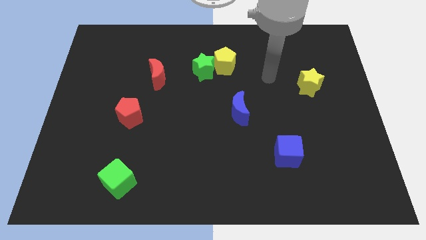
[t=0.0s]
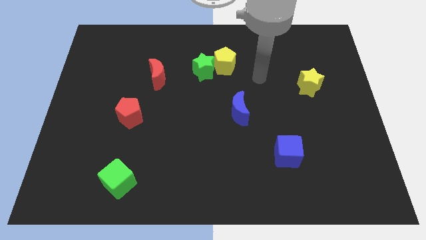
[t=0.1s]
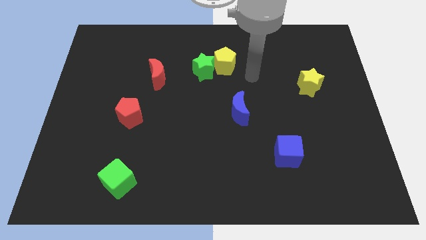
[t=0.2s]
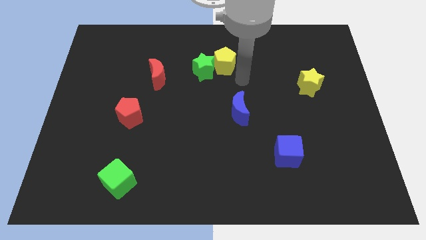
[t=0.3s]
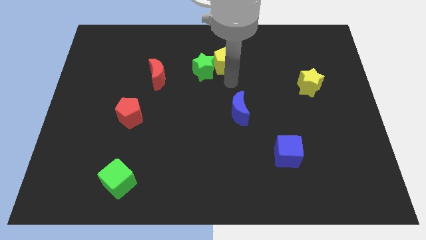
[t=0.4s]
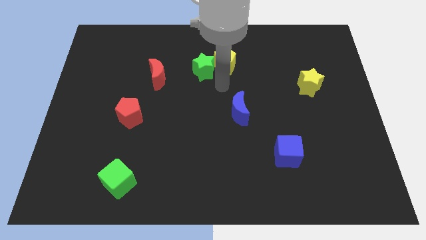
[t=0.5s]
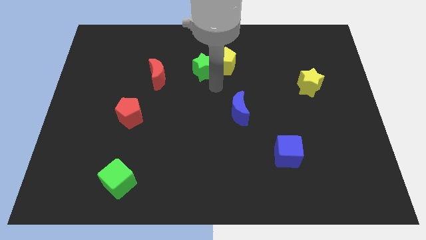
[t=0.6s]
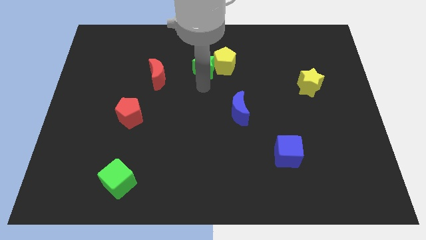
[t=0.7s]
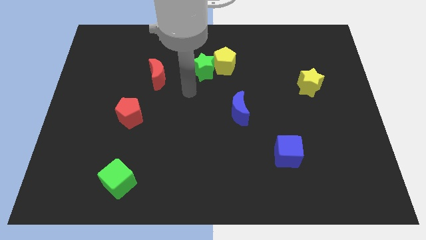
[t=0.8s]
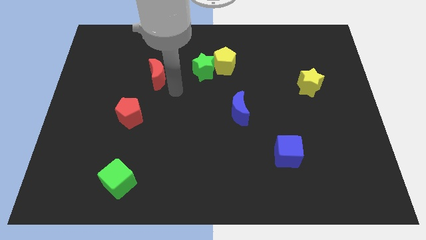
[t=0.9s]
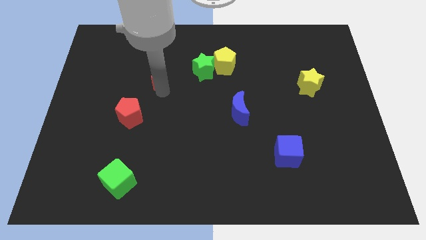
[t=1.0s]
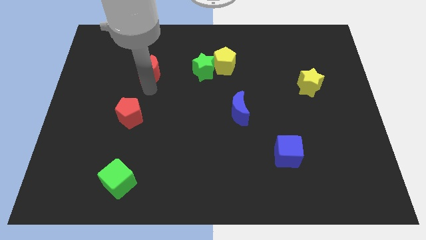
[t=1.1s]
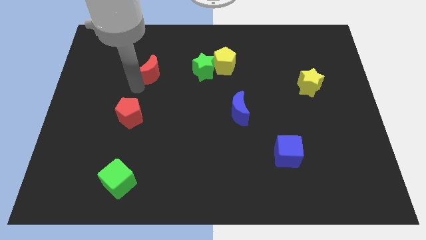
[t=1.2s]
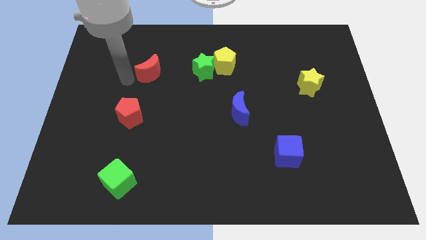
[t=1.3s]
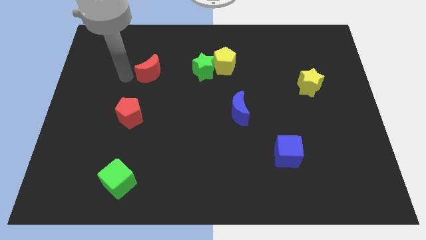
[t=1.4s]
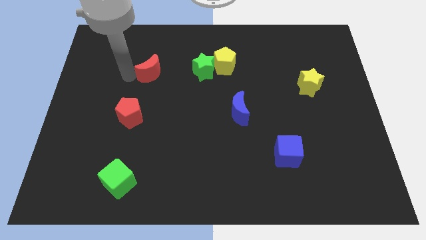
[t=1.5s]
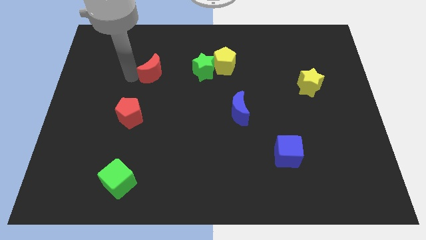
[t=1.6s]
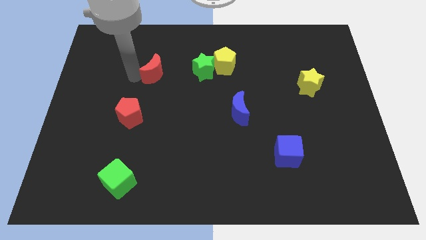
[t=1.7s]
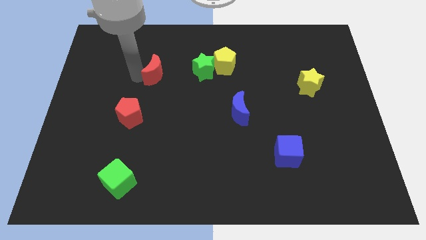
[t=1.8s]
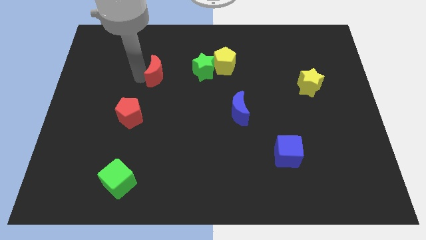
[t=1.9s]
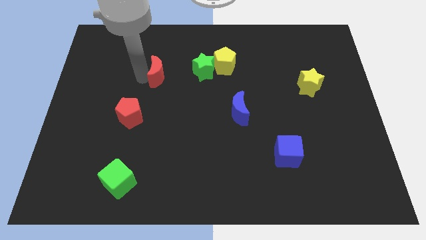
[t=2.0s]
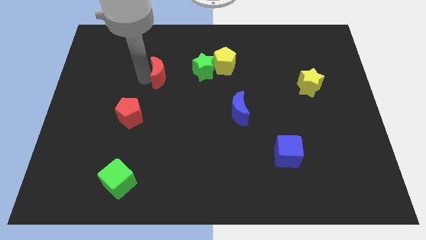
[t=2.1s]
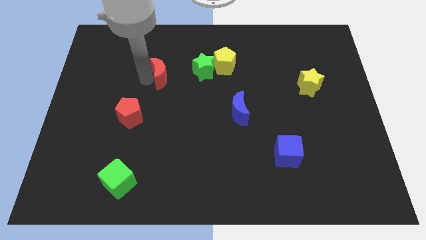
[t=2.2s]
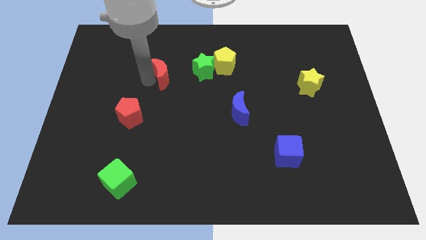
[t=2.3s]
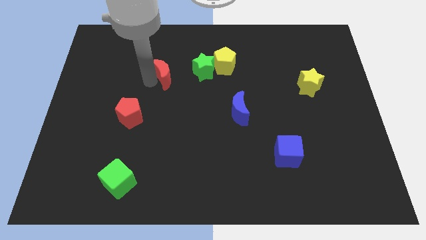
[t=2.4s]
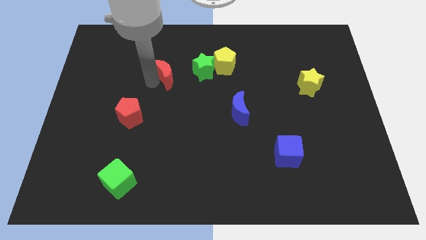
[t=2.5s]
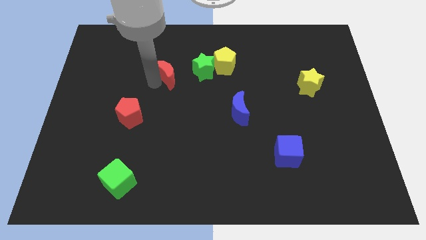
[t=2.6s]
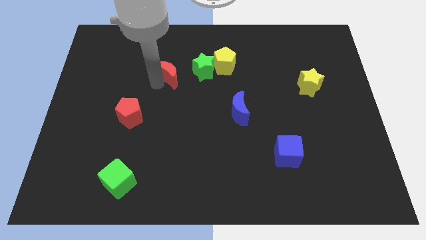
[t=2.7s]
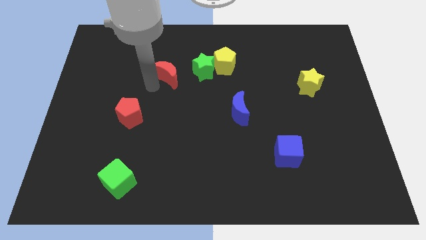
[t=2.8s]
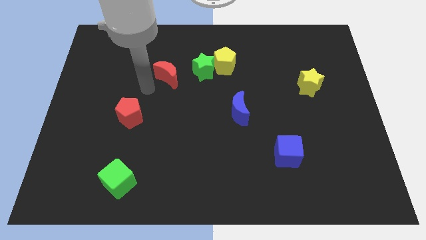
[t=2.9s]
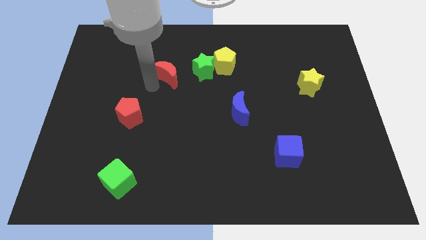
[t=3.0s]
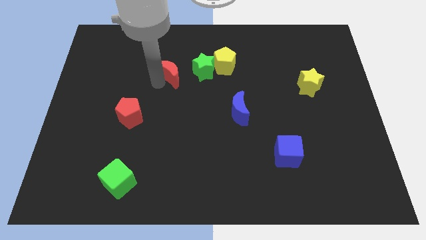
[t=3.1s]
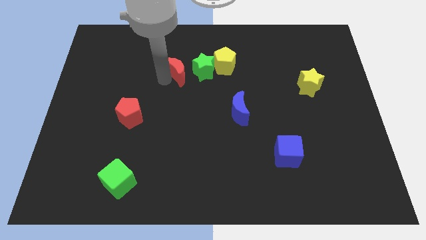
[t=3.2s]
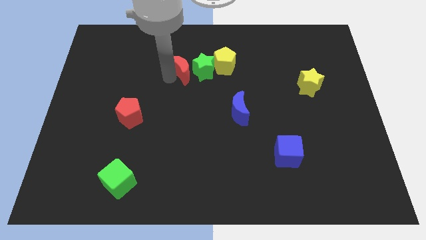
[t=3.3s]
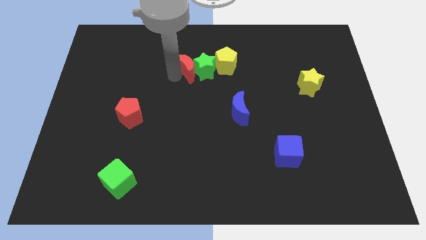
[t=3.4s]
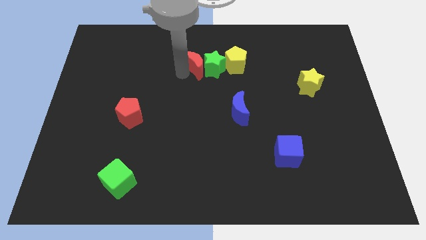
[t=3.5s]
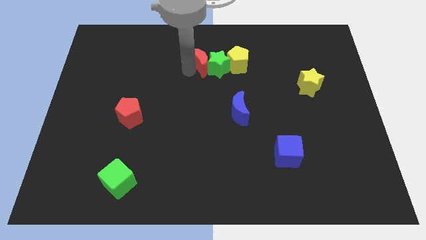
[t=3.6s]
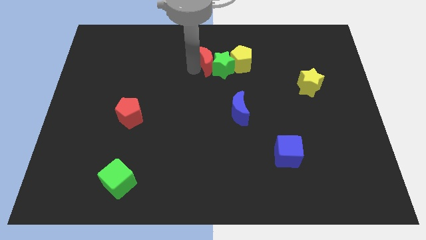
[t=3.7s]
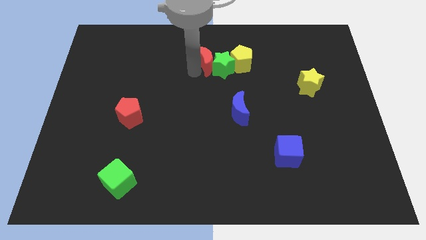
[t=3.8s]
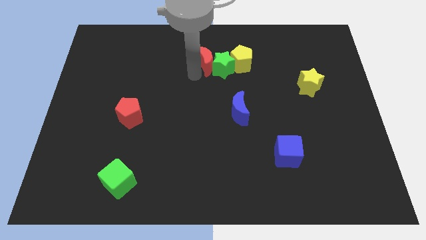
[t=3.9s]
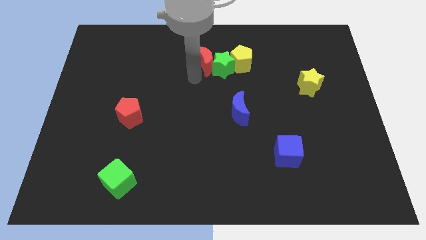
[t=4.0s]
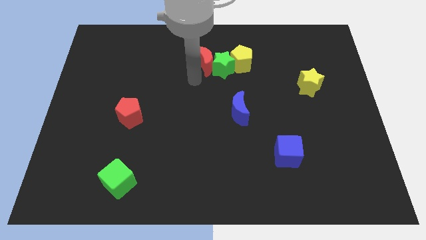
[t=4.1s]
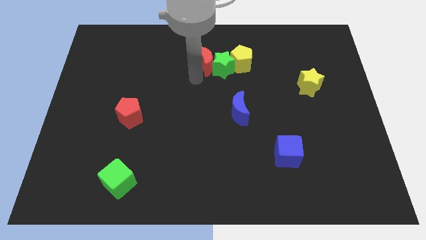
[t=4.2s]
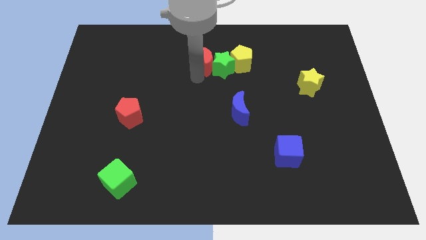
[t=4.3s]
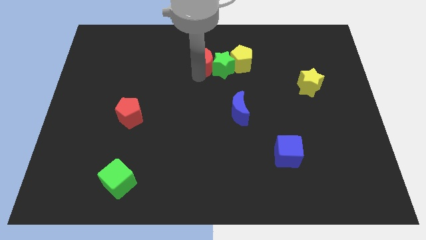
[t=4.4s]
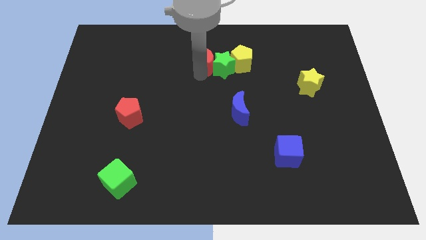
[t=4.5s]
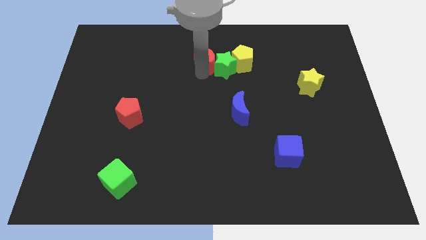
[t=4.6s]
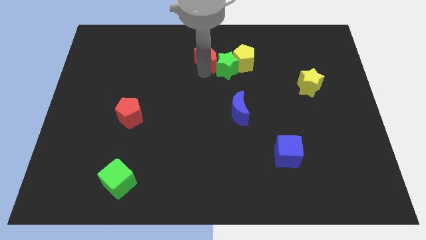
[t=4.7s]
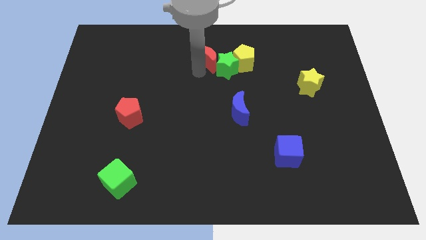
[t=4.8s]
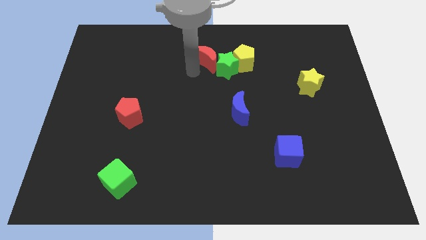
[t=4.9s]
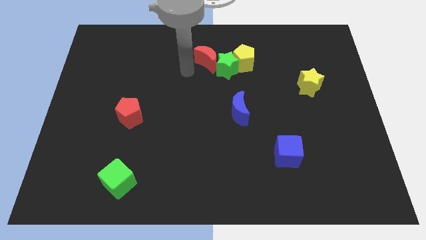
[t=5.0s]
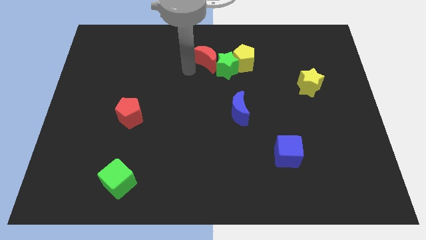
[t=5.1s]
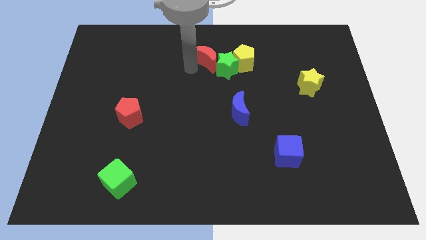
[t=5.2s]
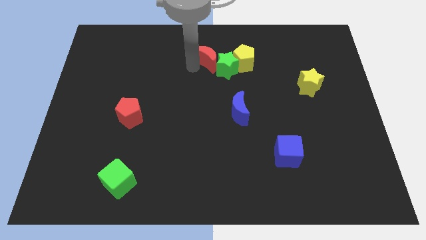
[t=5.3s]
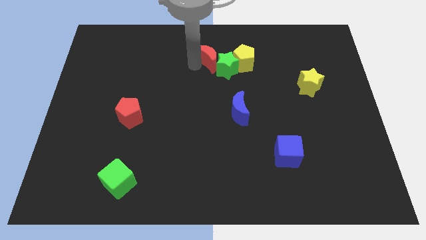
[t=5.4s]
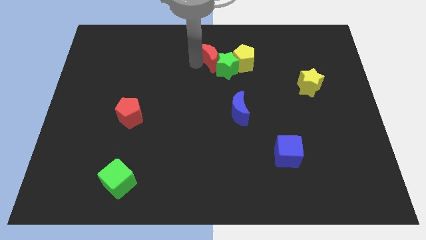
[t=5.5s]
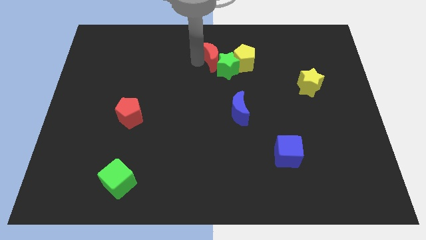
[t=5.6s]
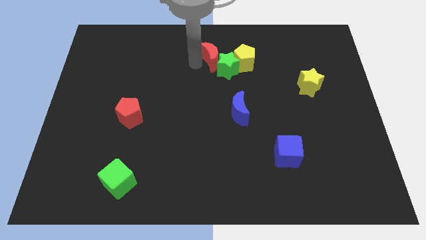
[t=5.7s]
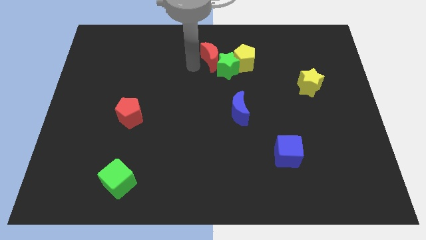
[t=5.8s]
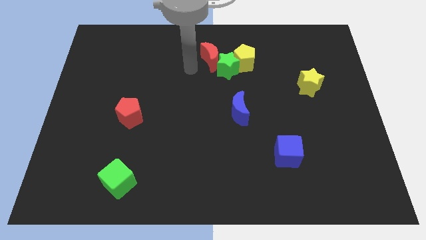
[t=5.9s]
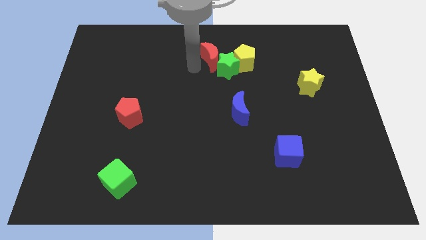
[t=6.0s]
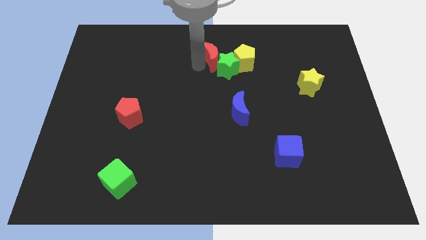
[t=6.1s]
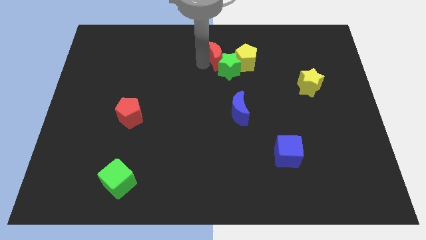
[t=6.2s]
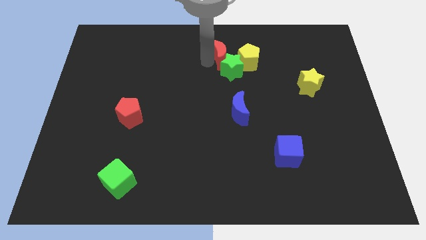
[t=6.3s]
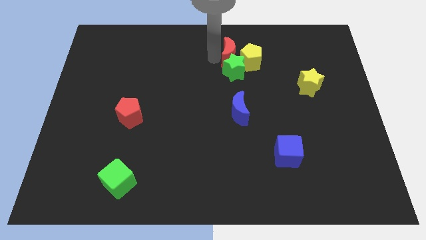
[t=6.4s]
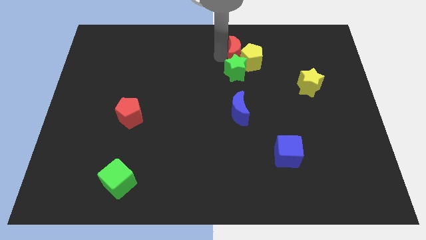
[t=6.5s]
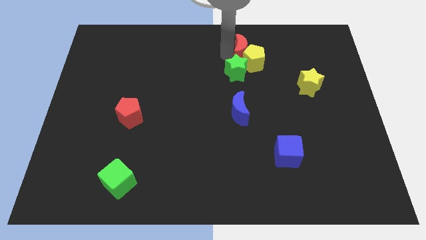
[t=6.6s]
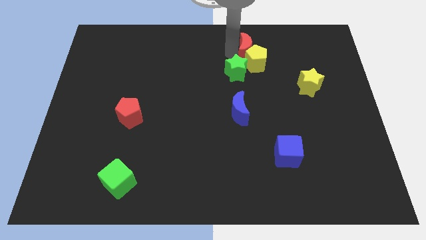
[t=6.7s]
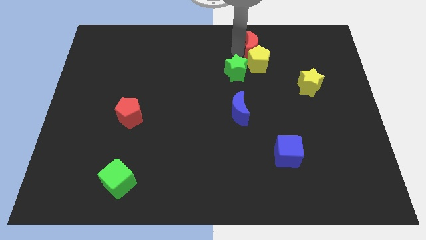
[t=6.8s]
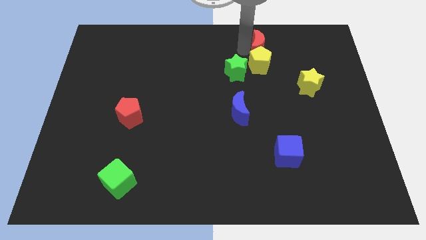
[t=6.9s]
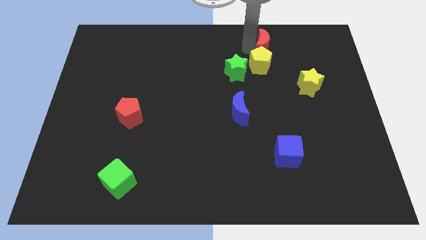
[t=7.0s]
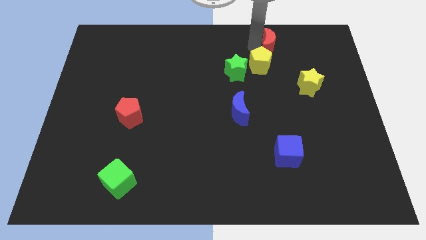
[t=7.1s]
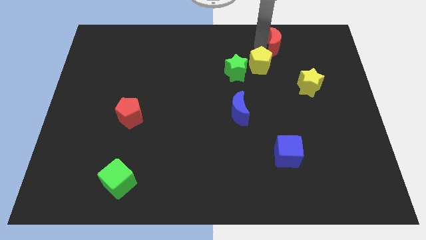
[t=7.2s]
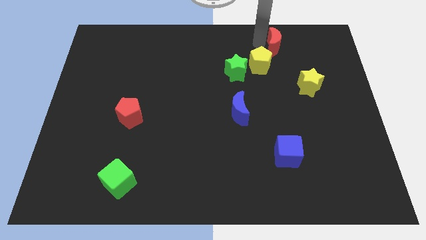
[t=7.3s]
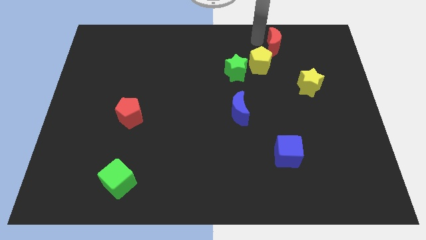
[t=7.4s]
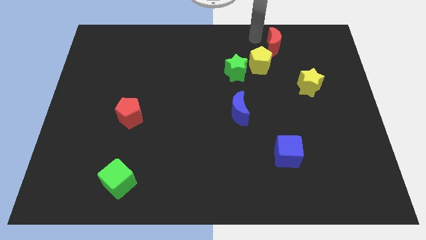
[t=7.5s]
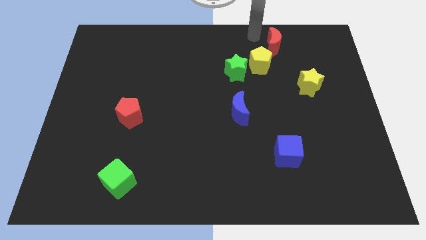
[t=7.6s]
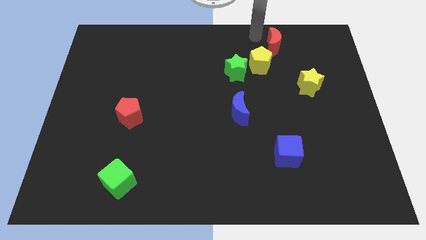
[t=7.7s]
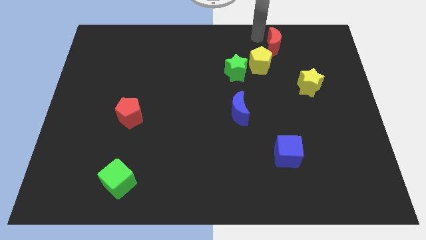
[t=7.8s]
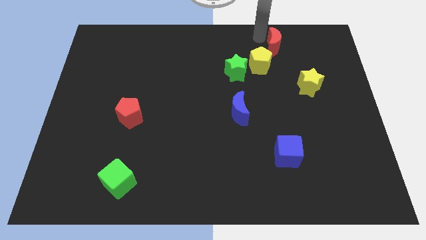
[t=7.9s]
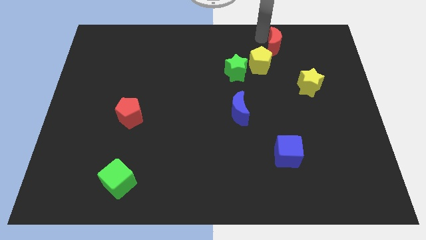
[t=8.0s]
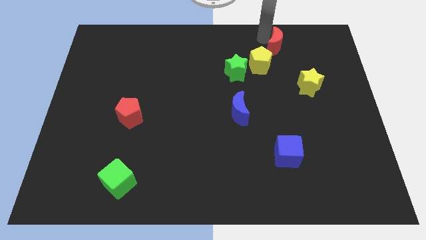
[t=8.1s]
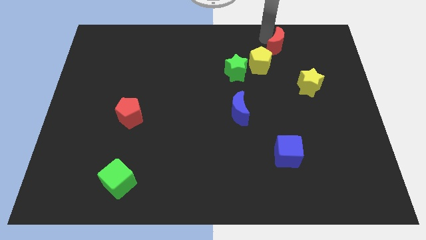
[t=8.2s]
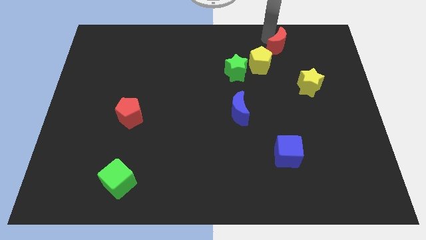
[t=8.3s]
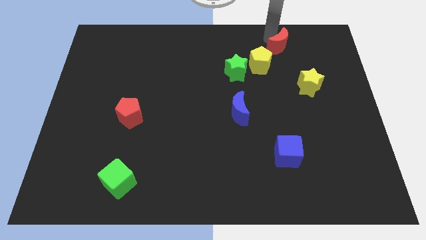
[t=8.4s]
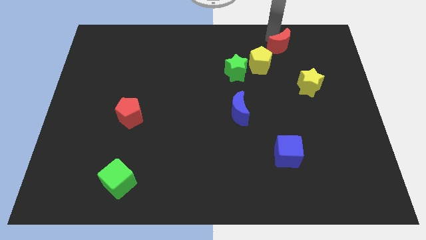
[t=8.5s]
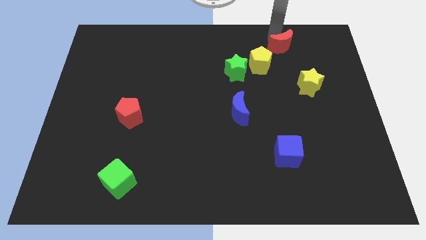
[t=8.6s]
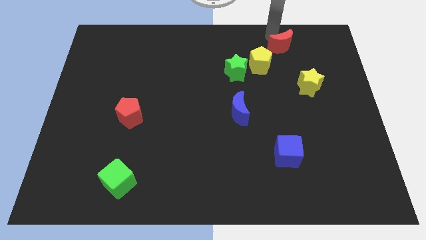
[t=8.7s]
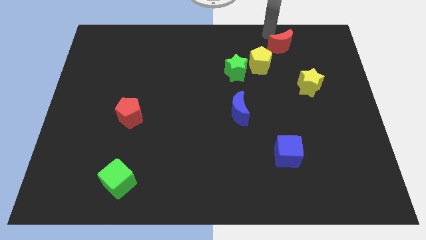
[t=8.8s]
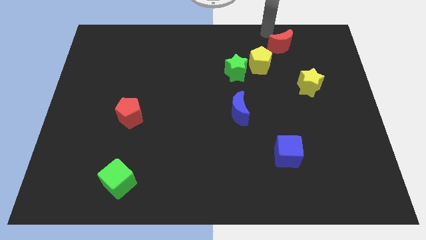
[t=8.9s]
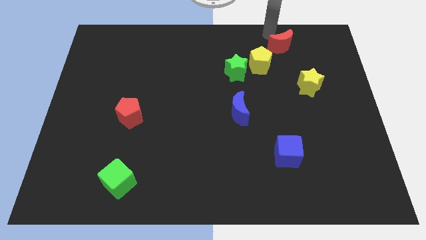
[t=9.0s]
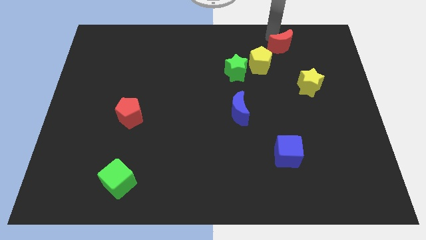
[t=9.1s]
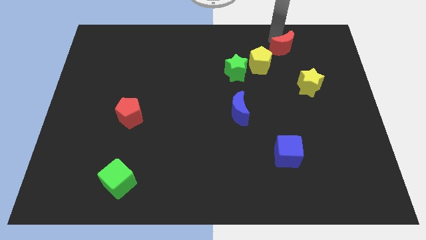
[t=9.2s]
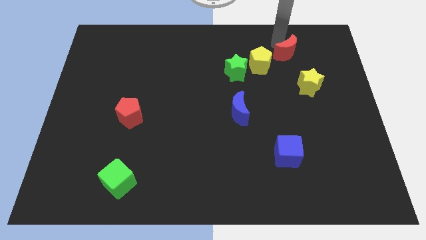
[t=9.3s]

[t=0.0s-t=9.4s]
put the red moon to the top of the yellow star
